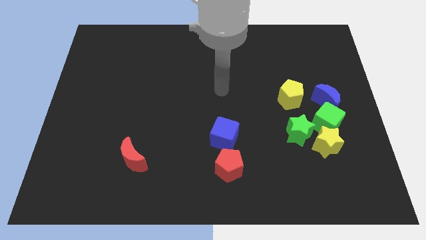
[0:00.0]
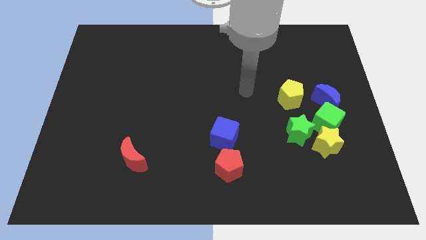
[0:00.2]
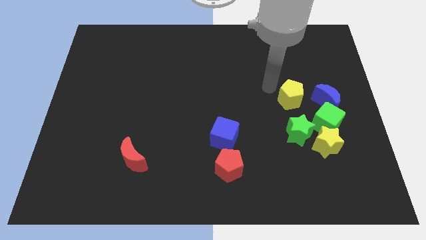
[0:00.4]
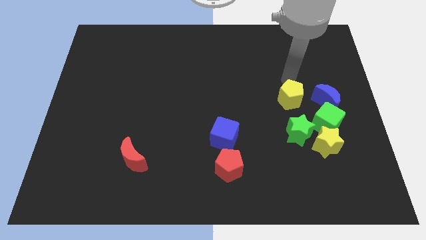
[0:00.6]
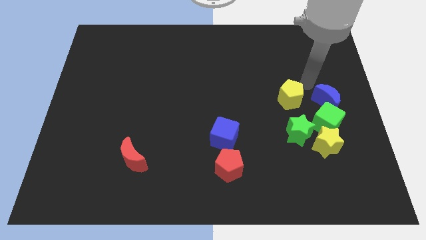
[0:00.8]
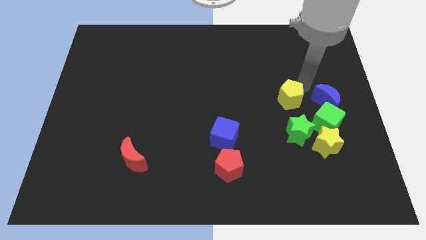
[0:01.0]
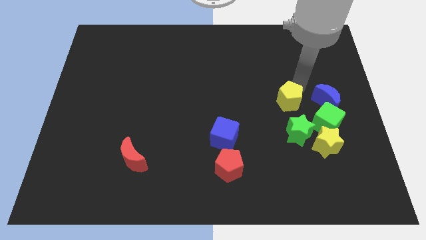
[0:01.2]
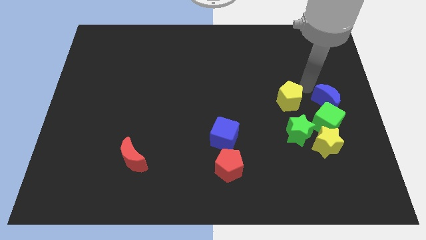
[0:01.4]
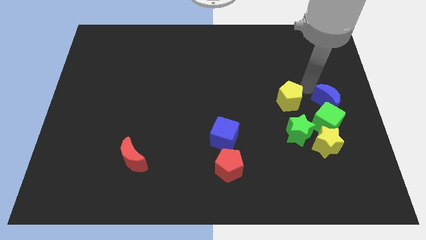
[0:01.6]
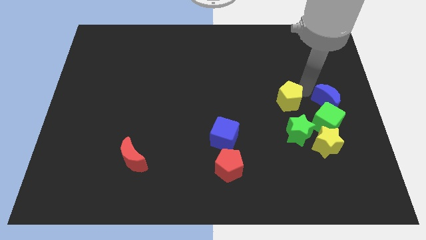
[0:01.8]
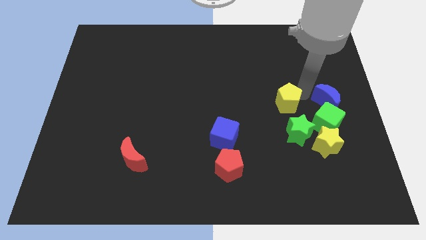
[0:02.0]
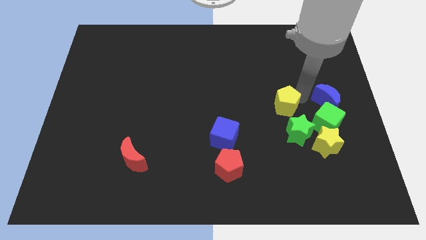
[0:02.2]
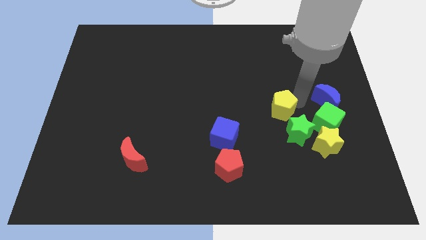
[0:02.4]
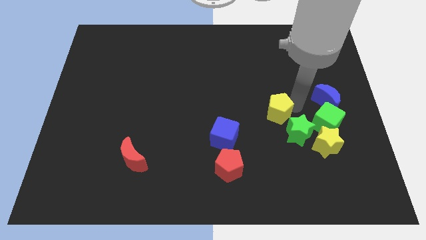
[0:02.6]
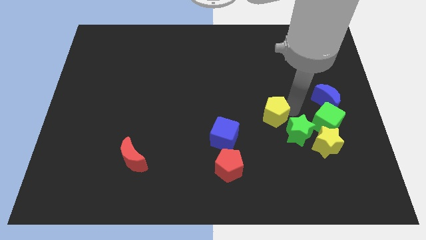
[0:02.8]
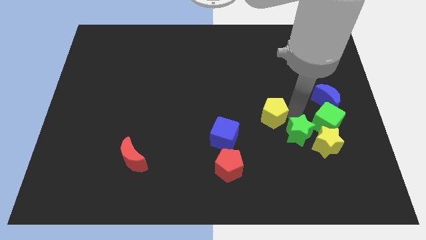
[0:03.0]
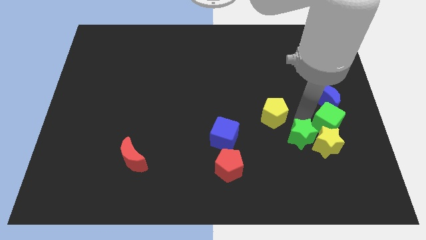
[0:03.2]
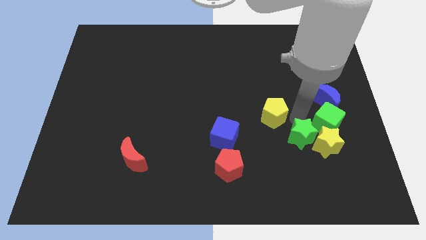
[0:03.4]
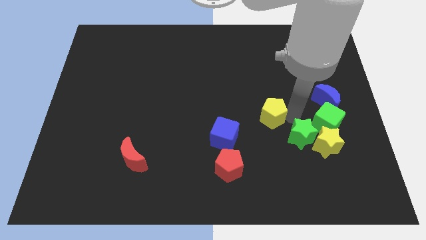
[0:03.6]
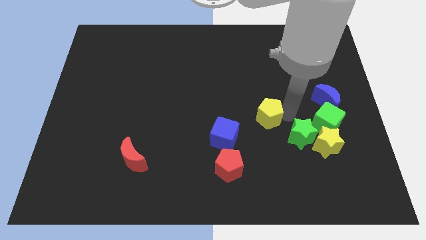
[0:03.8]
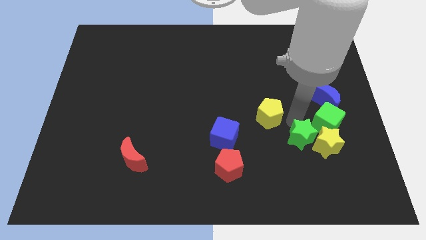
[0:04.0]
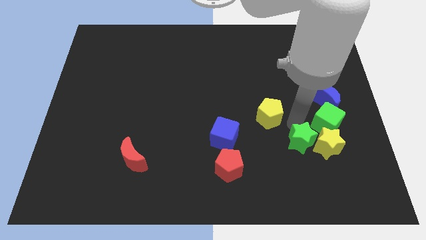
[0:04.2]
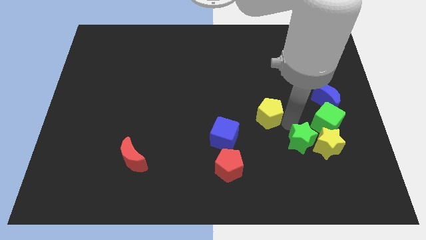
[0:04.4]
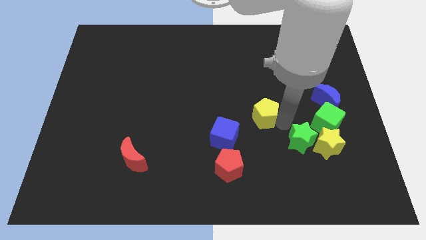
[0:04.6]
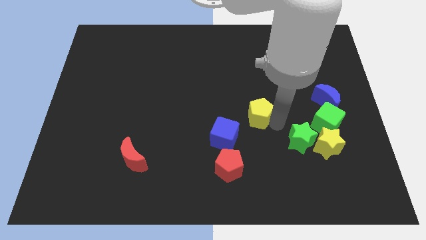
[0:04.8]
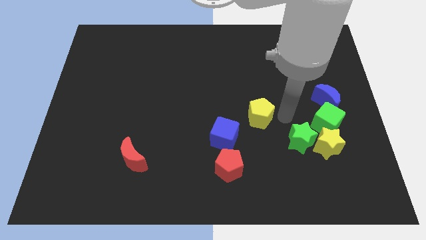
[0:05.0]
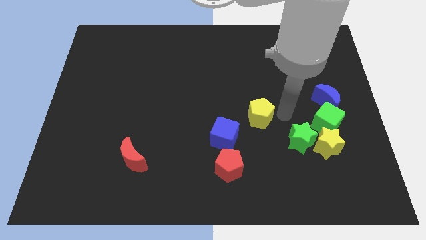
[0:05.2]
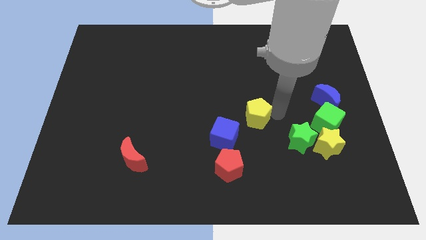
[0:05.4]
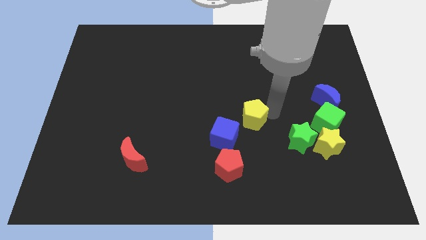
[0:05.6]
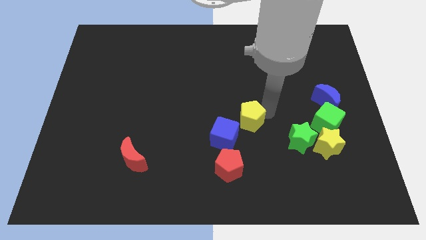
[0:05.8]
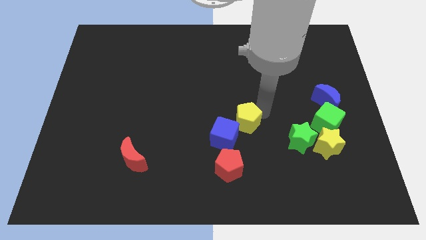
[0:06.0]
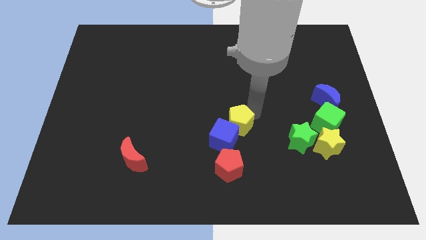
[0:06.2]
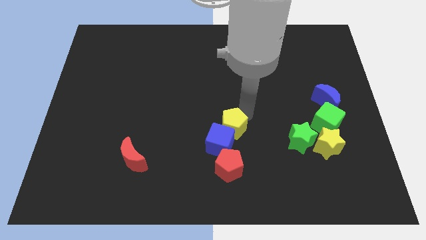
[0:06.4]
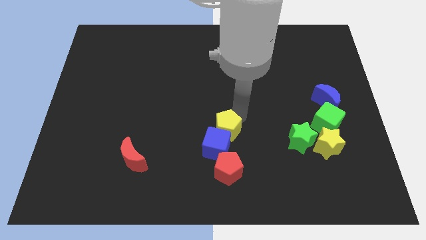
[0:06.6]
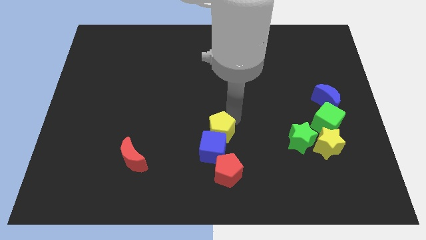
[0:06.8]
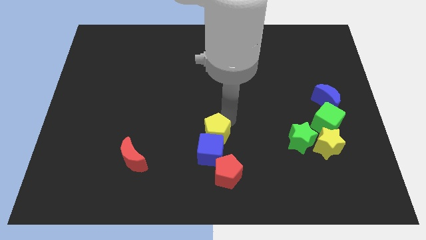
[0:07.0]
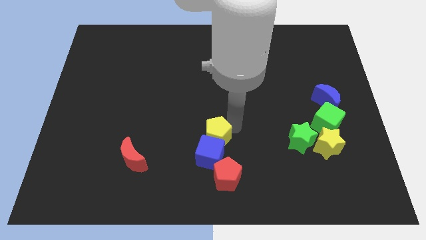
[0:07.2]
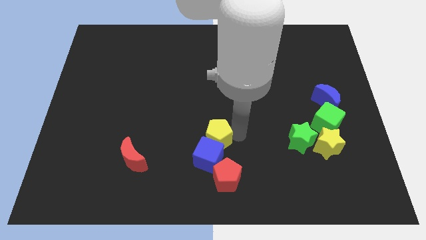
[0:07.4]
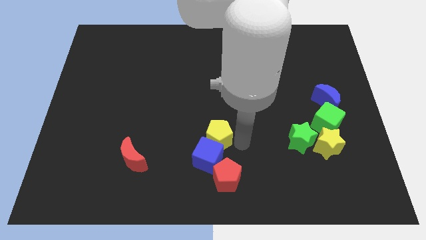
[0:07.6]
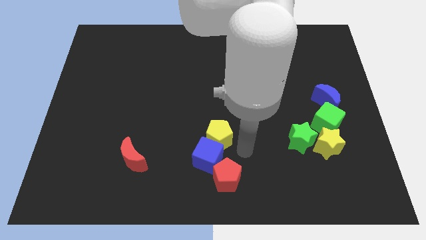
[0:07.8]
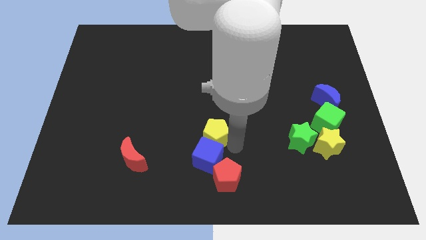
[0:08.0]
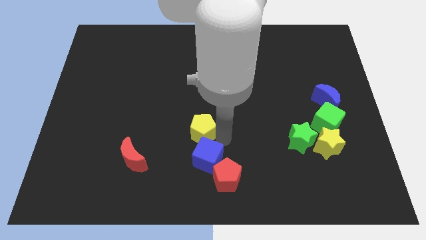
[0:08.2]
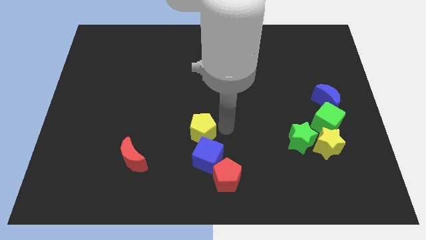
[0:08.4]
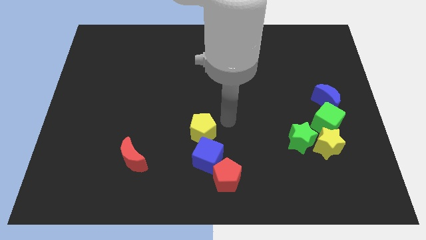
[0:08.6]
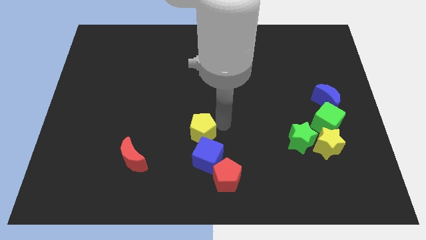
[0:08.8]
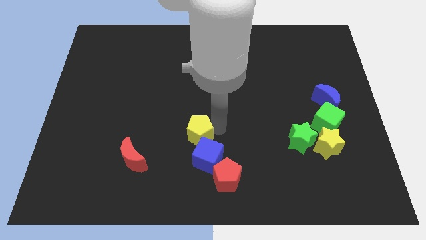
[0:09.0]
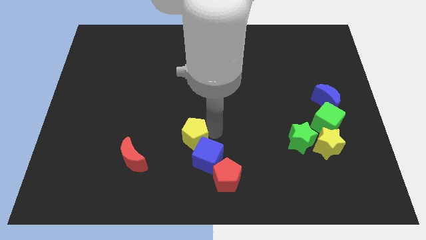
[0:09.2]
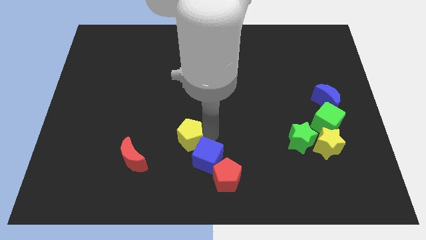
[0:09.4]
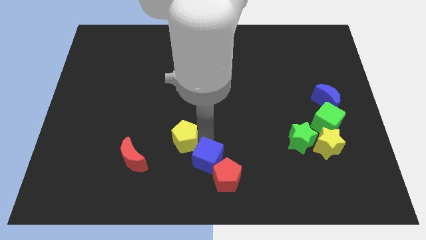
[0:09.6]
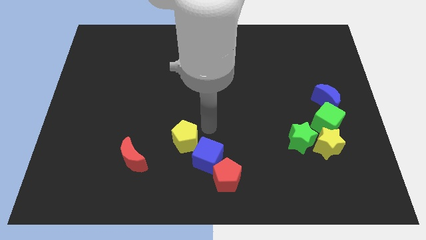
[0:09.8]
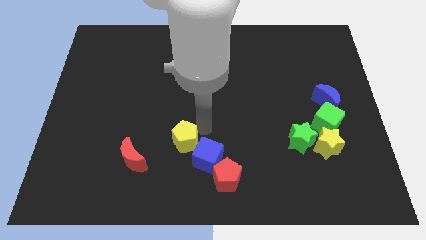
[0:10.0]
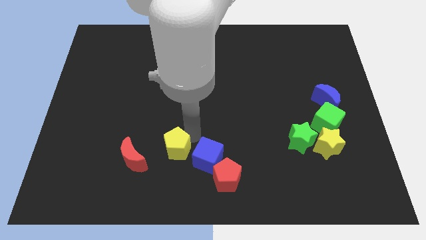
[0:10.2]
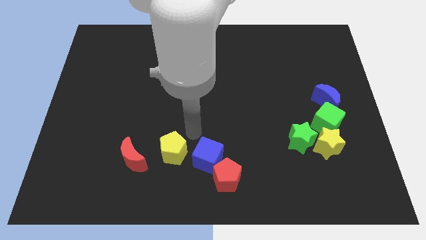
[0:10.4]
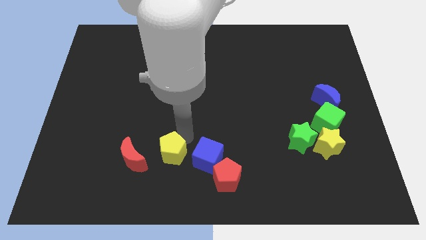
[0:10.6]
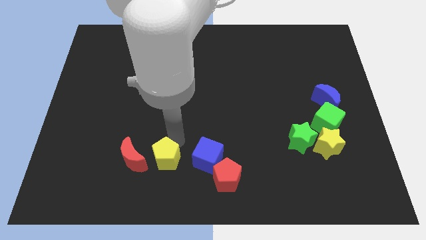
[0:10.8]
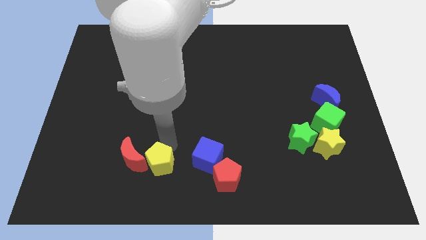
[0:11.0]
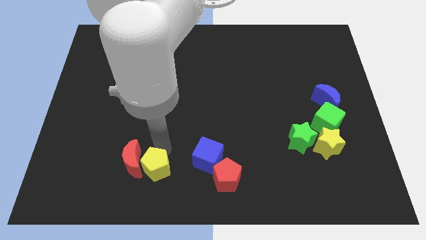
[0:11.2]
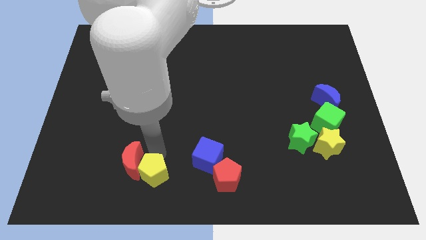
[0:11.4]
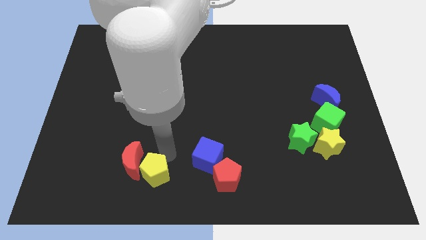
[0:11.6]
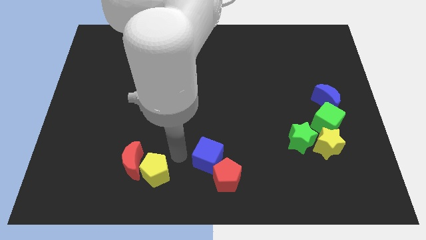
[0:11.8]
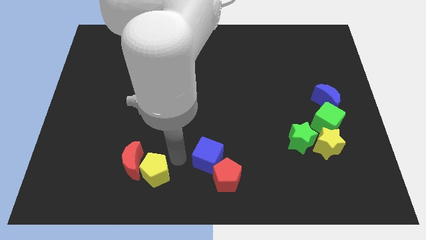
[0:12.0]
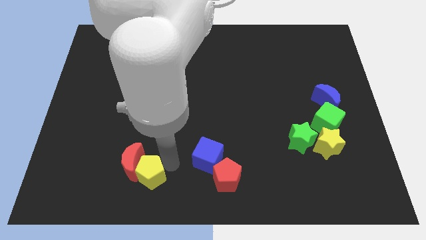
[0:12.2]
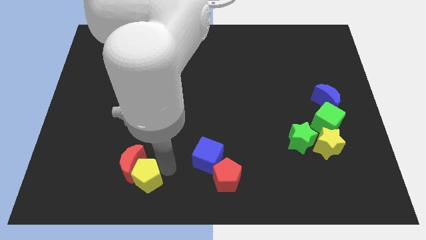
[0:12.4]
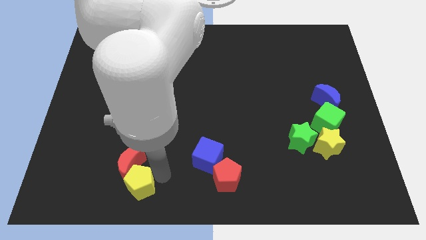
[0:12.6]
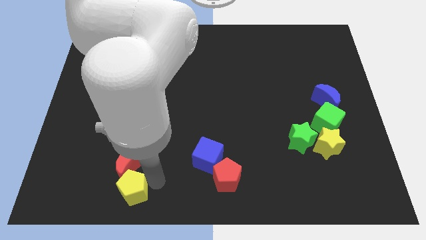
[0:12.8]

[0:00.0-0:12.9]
push the yellow pentagon to the bottom left of the red moon

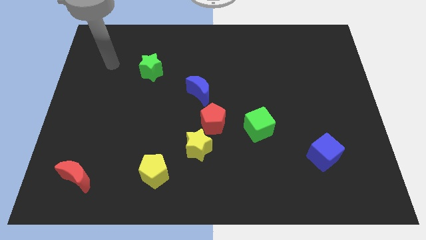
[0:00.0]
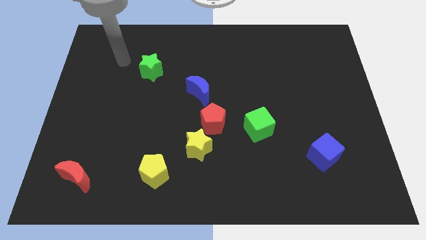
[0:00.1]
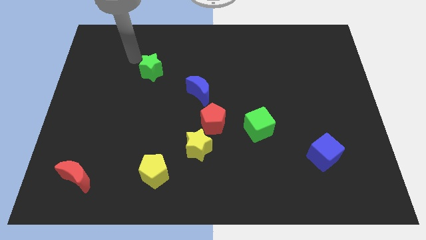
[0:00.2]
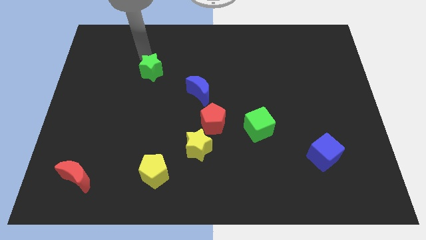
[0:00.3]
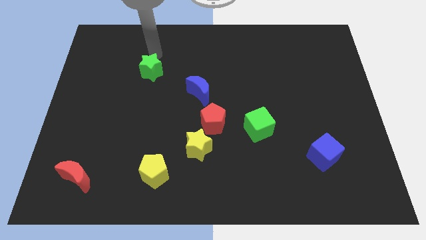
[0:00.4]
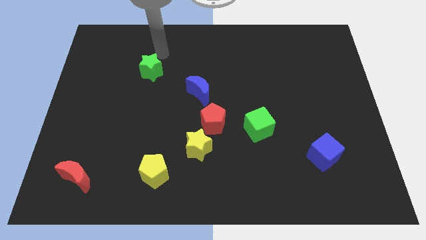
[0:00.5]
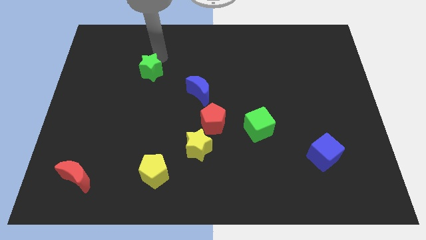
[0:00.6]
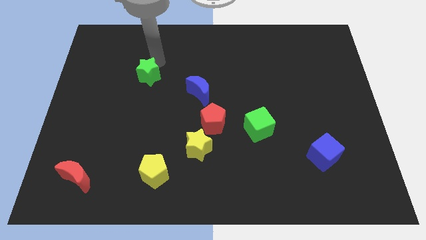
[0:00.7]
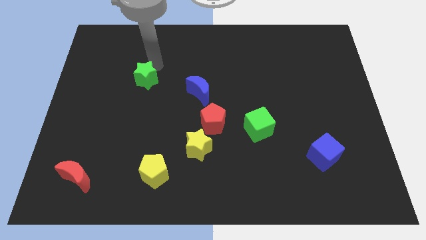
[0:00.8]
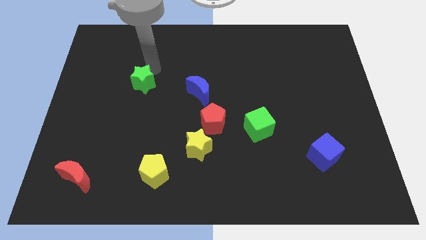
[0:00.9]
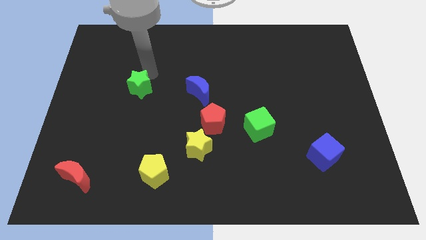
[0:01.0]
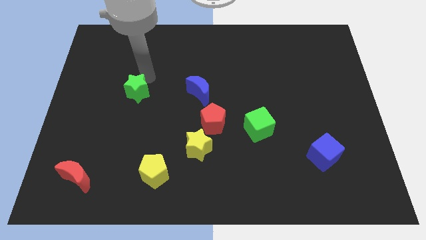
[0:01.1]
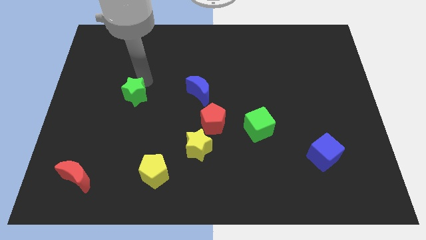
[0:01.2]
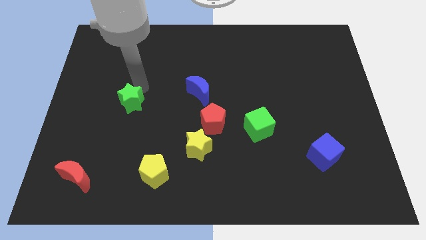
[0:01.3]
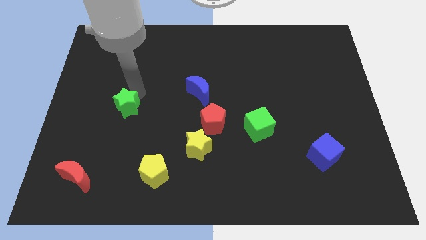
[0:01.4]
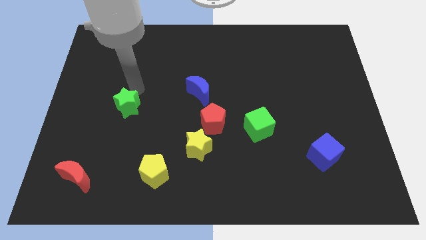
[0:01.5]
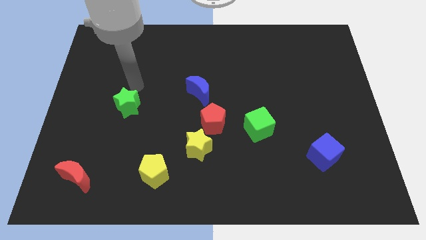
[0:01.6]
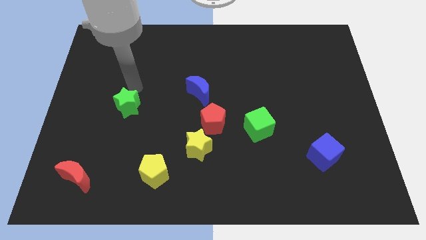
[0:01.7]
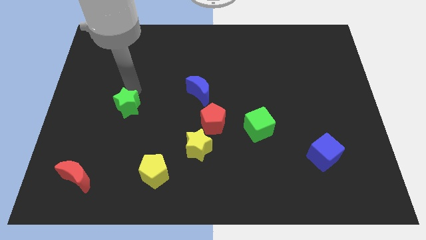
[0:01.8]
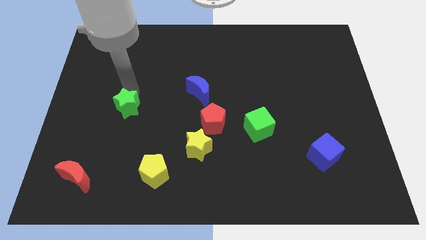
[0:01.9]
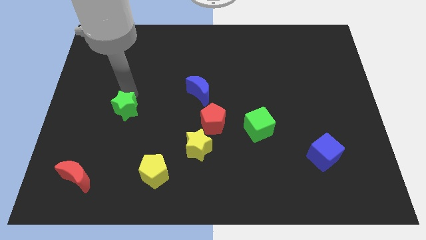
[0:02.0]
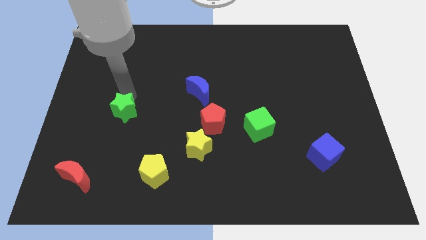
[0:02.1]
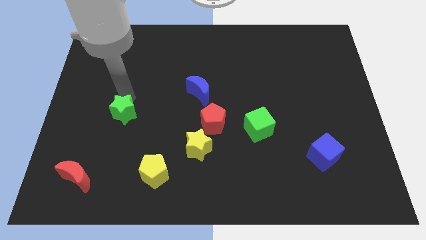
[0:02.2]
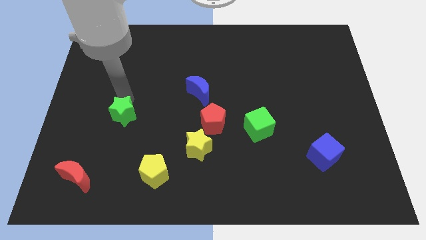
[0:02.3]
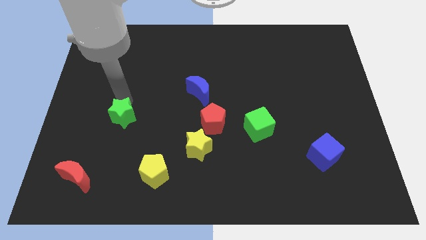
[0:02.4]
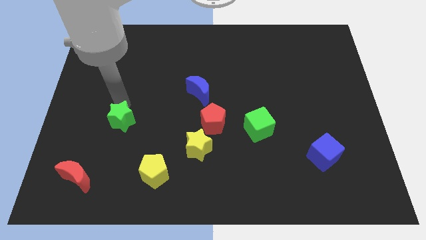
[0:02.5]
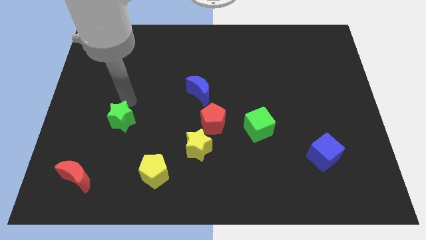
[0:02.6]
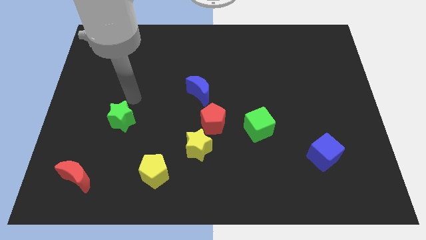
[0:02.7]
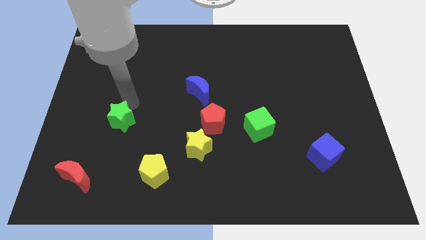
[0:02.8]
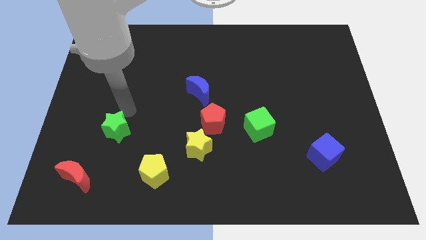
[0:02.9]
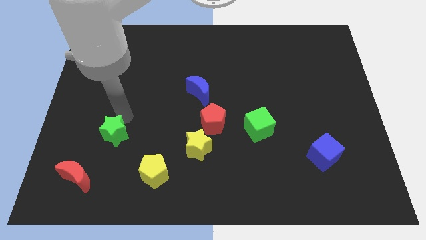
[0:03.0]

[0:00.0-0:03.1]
slide the green star diagonally up and to the right of the red moon
